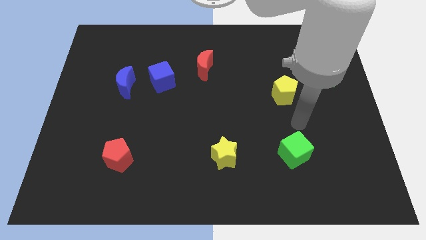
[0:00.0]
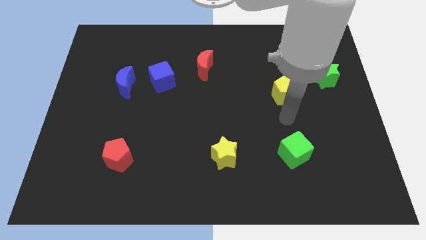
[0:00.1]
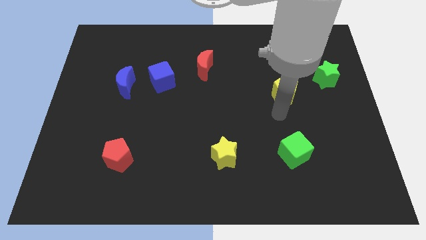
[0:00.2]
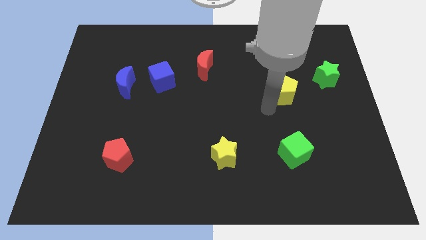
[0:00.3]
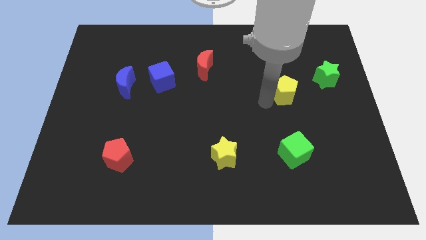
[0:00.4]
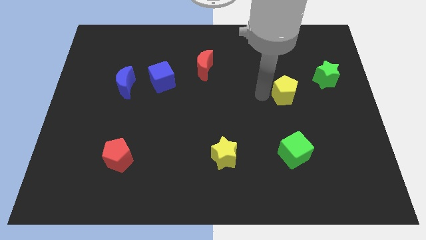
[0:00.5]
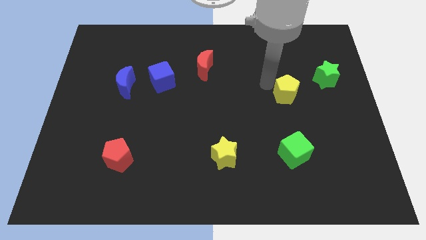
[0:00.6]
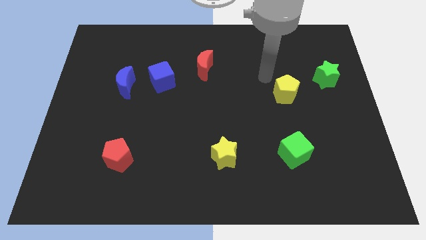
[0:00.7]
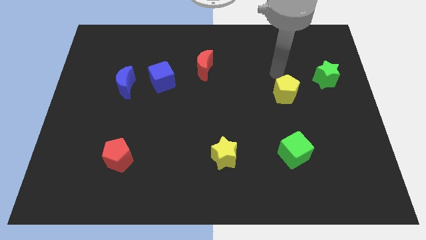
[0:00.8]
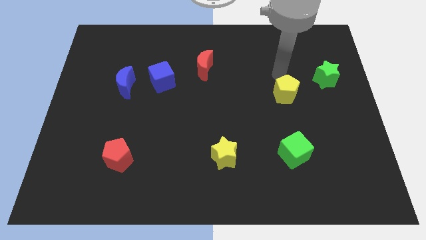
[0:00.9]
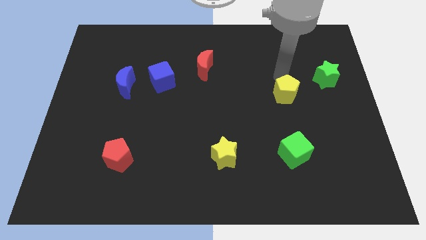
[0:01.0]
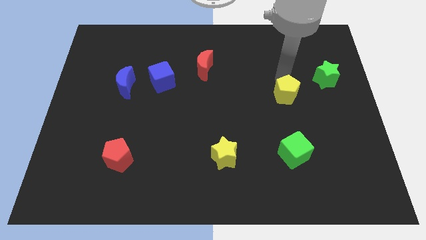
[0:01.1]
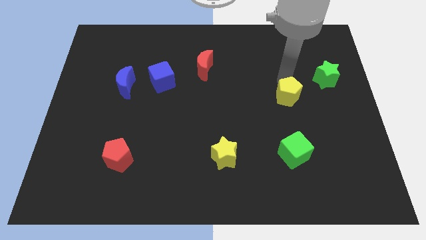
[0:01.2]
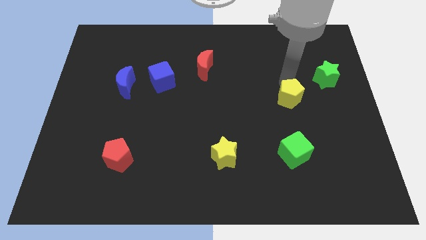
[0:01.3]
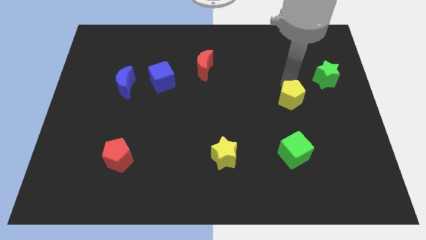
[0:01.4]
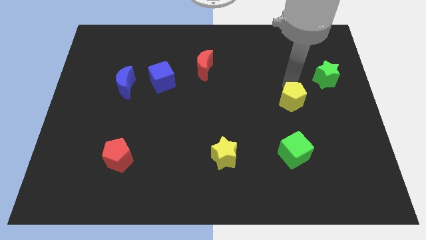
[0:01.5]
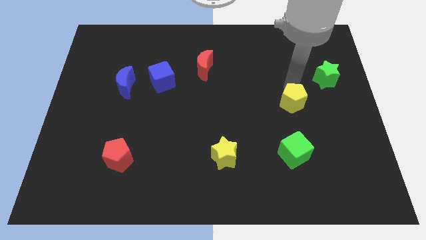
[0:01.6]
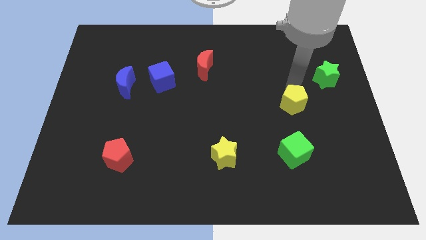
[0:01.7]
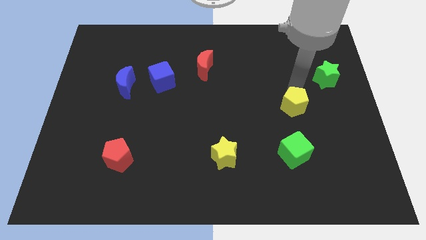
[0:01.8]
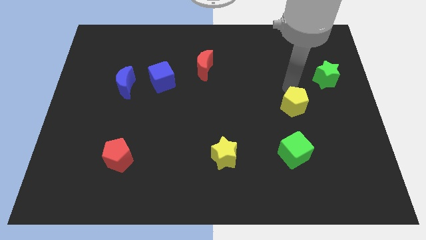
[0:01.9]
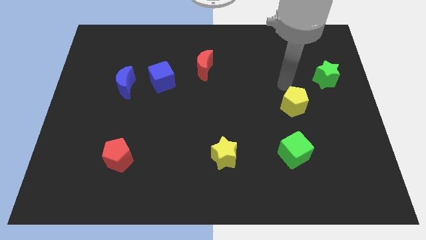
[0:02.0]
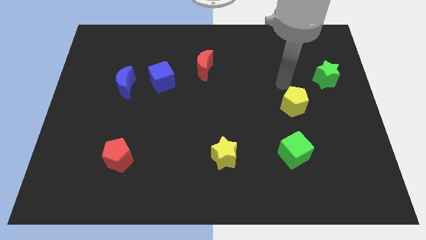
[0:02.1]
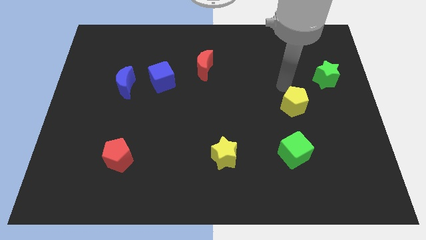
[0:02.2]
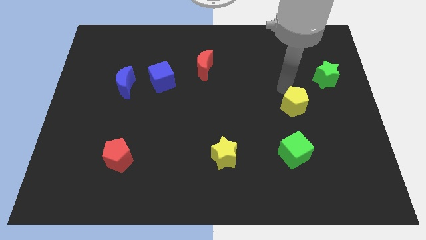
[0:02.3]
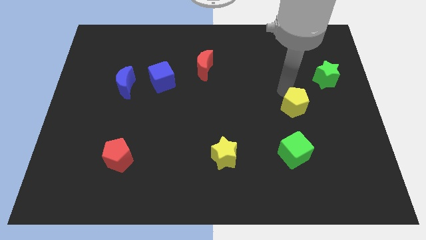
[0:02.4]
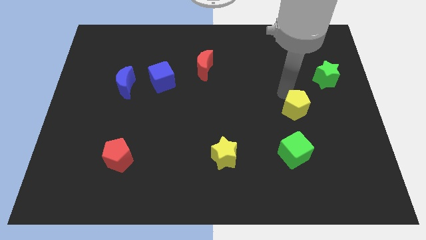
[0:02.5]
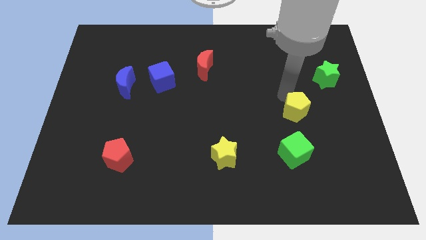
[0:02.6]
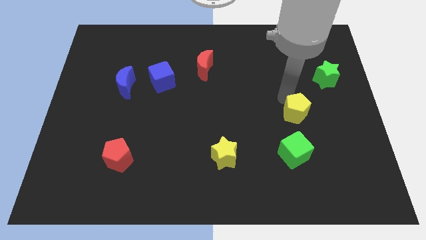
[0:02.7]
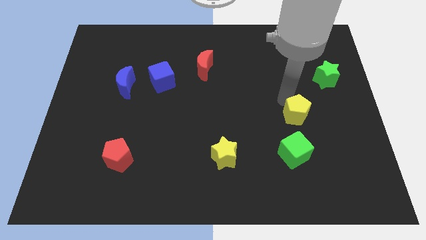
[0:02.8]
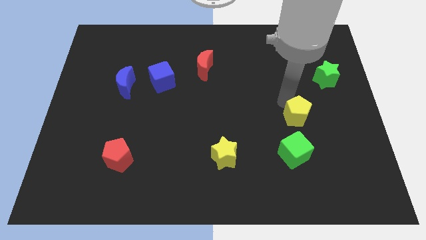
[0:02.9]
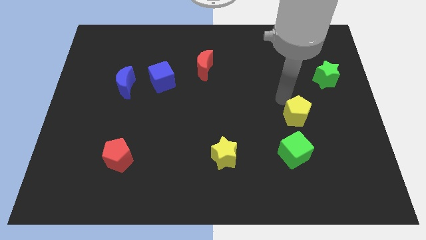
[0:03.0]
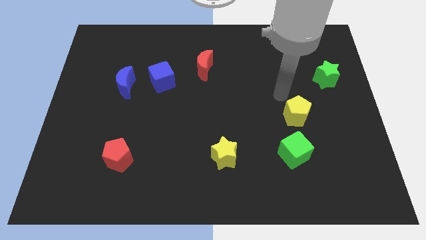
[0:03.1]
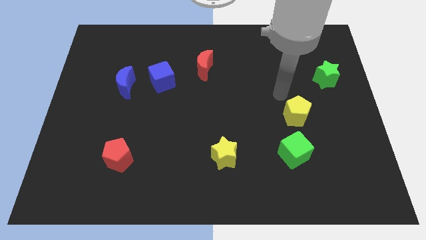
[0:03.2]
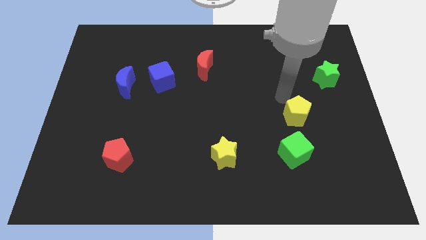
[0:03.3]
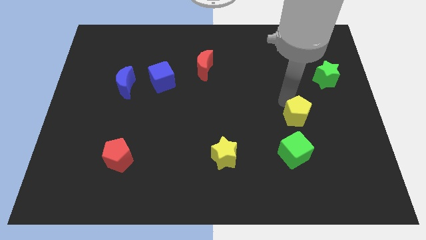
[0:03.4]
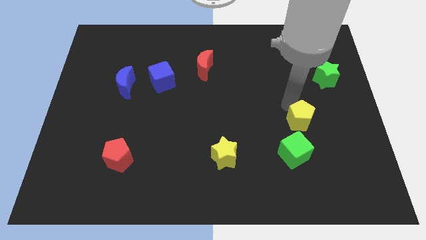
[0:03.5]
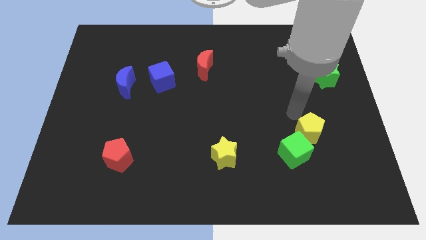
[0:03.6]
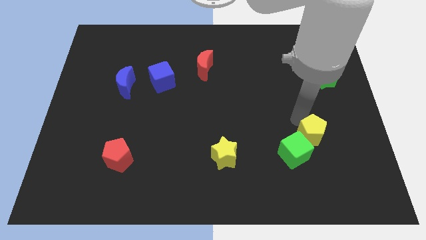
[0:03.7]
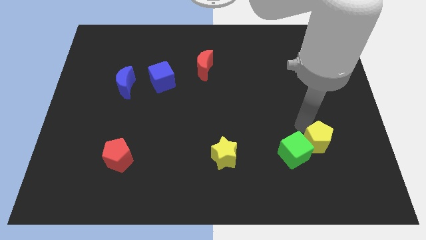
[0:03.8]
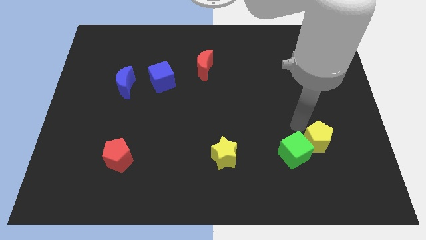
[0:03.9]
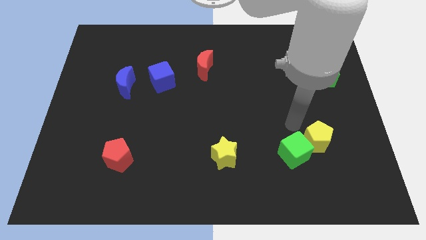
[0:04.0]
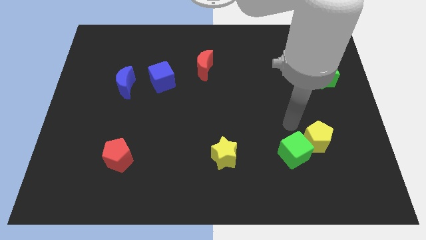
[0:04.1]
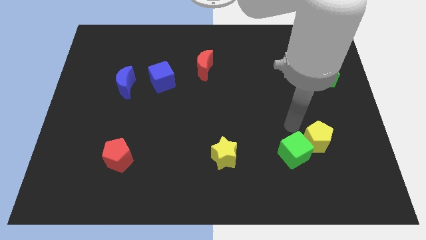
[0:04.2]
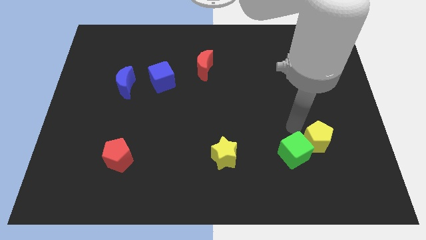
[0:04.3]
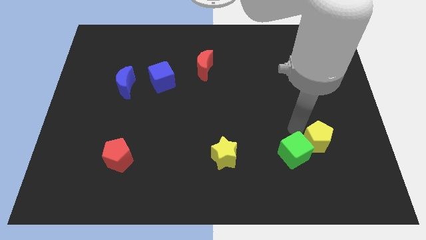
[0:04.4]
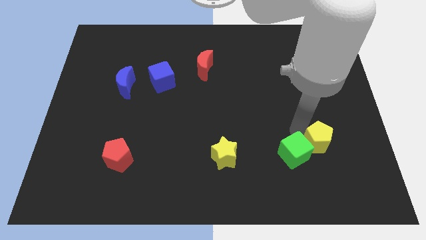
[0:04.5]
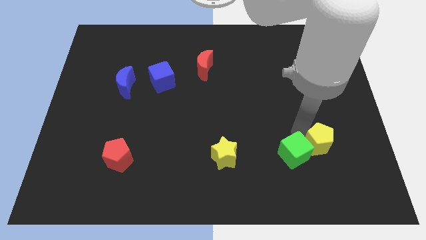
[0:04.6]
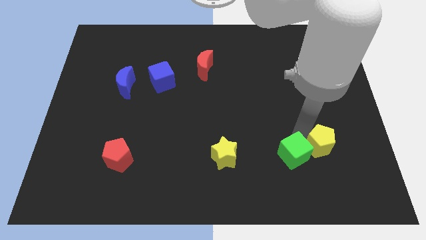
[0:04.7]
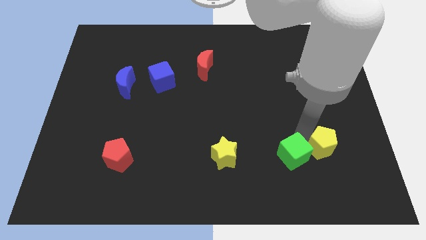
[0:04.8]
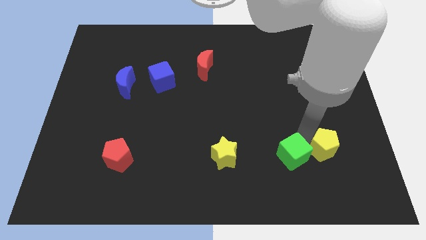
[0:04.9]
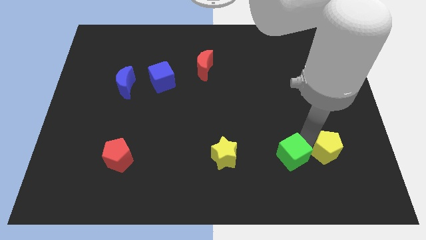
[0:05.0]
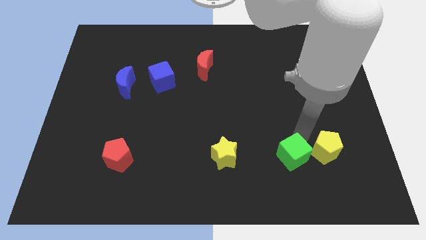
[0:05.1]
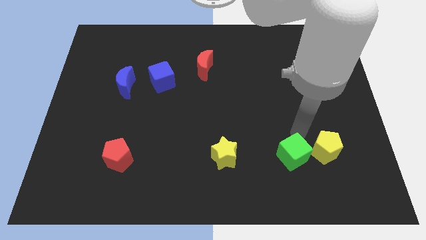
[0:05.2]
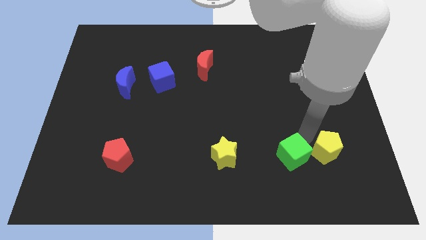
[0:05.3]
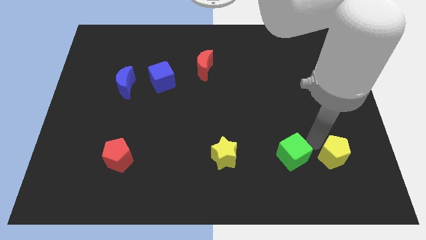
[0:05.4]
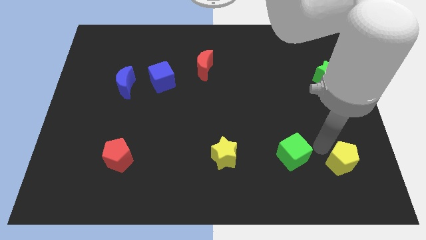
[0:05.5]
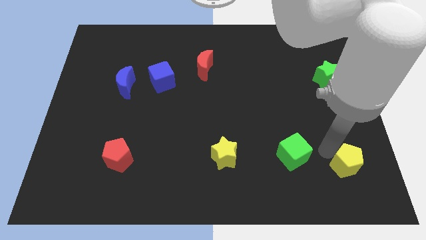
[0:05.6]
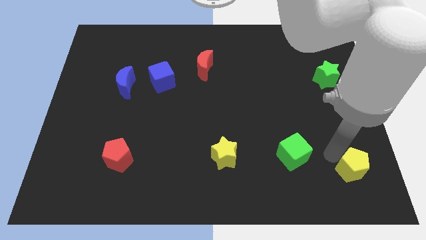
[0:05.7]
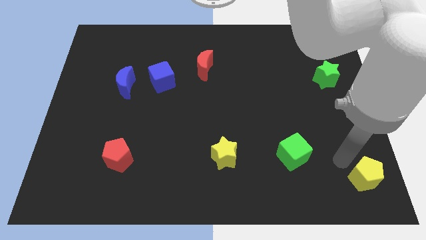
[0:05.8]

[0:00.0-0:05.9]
put the yellow pentagon to the bottom right of the board
